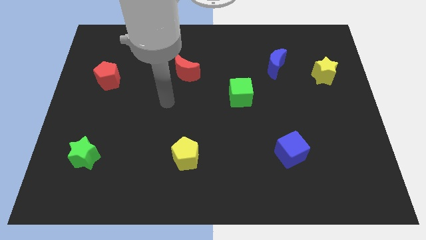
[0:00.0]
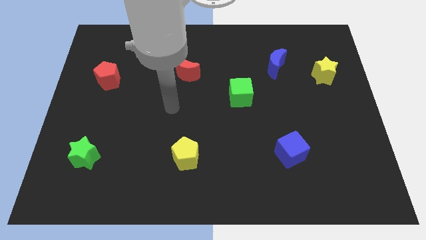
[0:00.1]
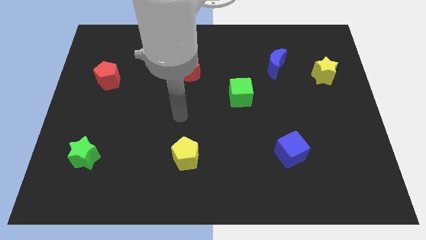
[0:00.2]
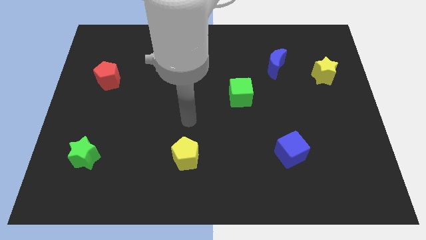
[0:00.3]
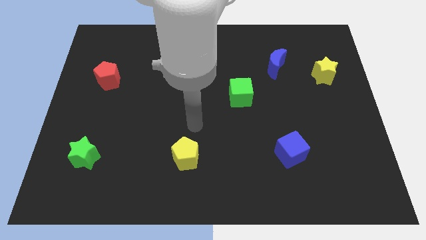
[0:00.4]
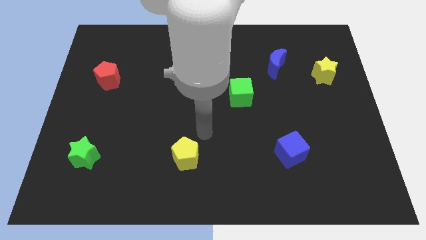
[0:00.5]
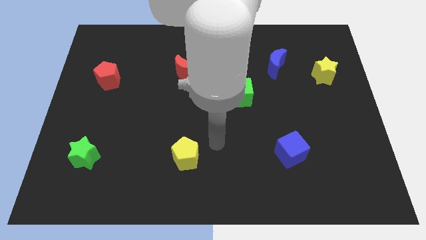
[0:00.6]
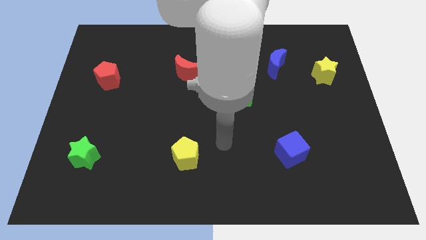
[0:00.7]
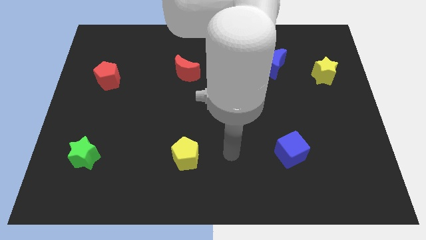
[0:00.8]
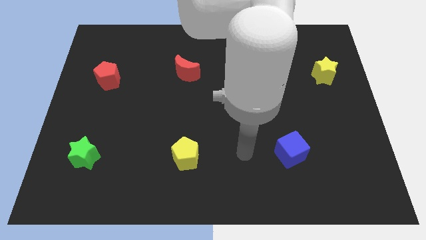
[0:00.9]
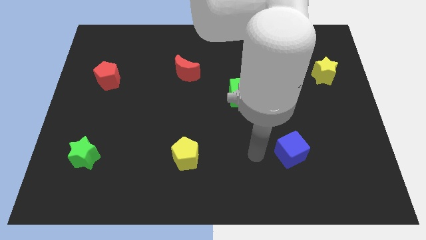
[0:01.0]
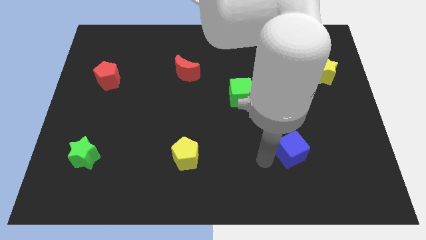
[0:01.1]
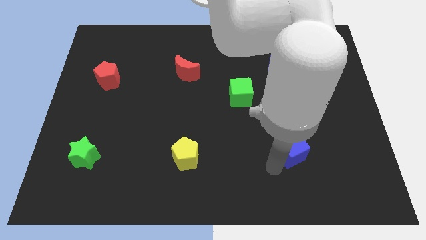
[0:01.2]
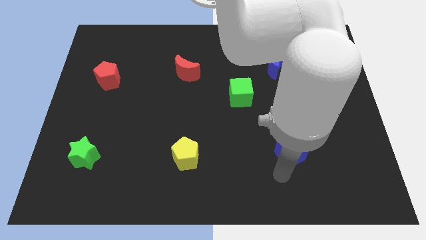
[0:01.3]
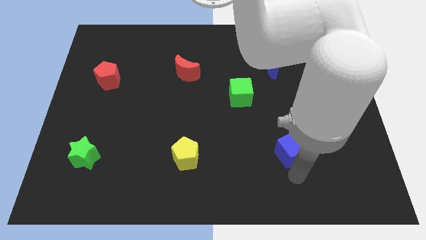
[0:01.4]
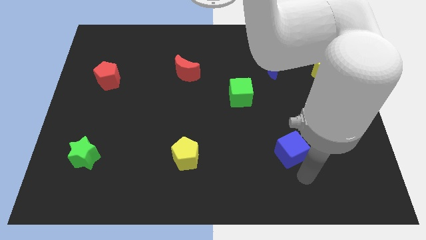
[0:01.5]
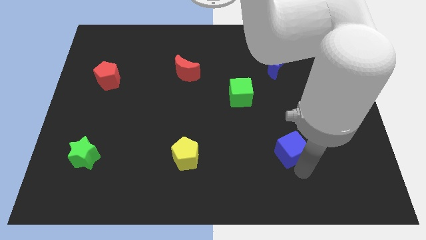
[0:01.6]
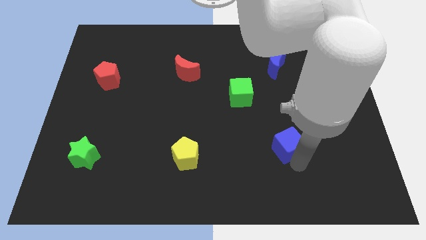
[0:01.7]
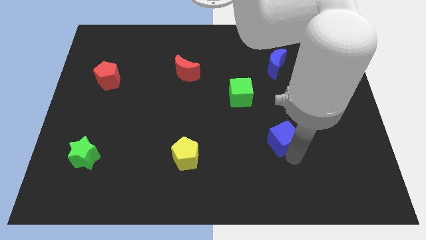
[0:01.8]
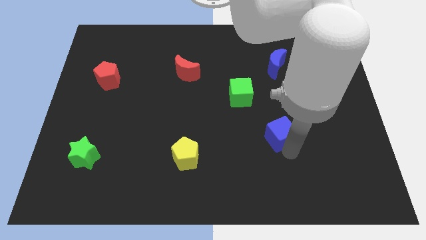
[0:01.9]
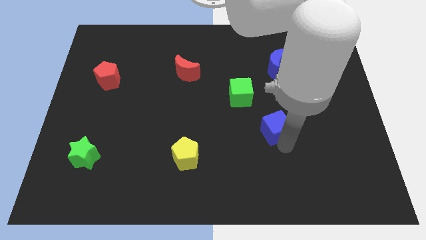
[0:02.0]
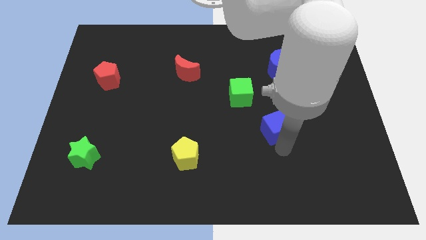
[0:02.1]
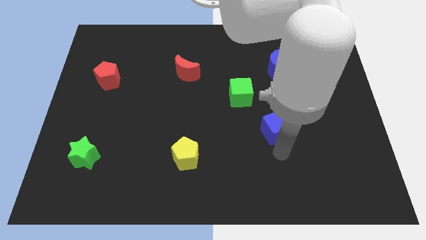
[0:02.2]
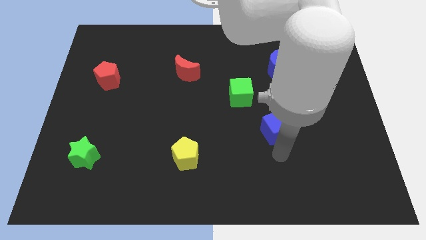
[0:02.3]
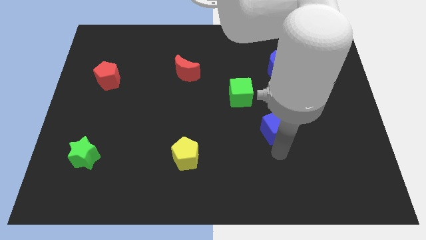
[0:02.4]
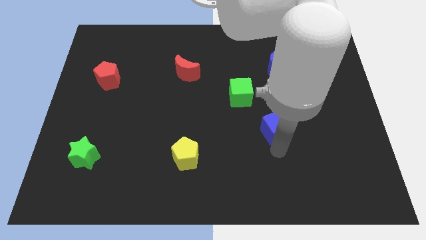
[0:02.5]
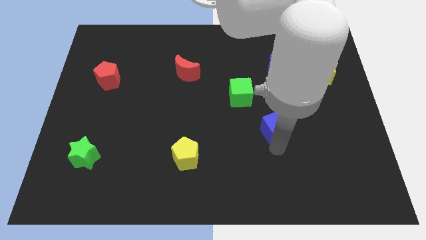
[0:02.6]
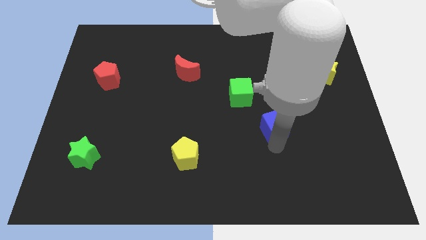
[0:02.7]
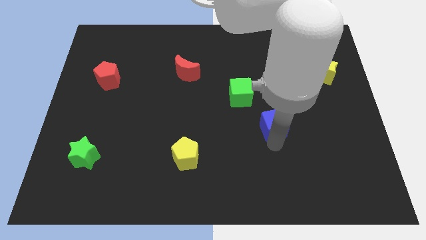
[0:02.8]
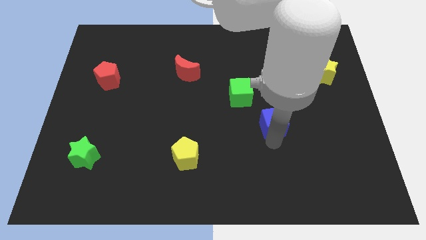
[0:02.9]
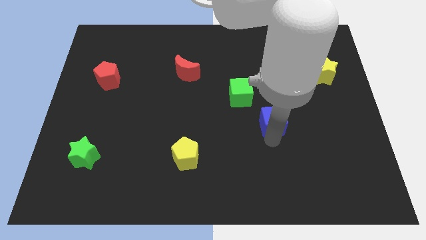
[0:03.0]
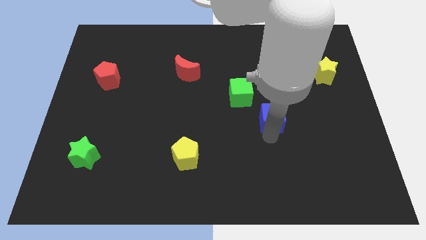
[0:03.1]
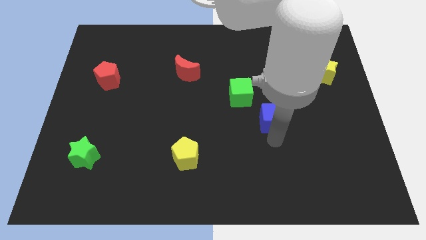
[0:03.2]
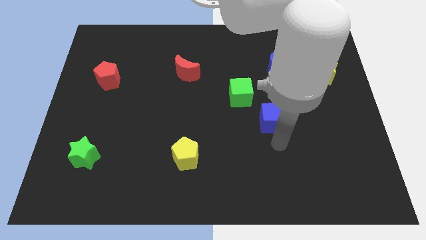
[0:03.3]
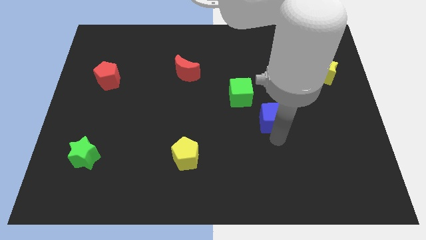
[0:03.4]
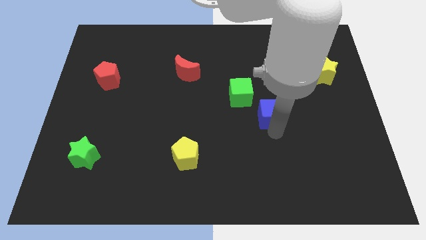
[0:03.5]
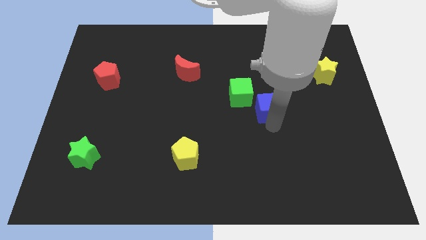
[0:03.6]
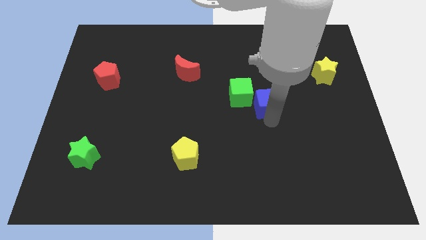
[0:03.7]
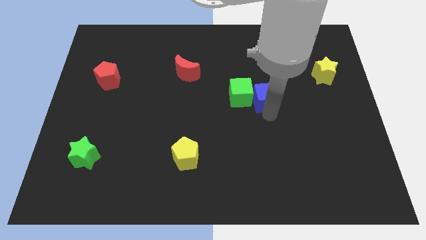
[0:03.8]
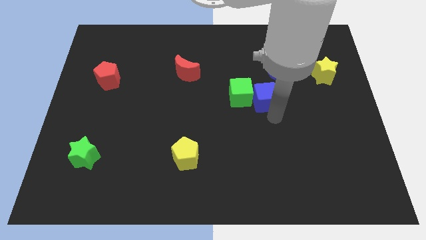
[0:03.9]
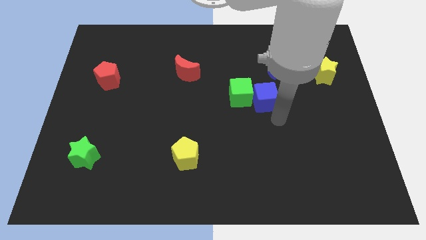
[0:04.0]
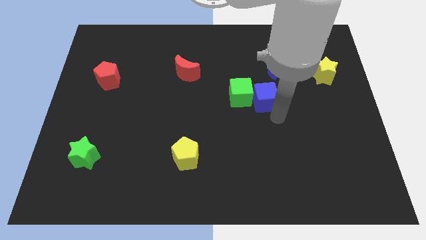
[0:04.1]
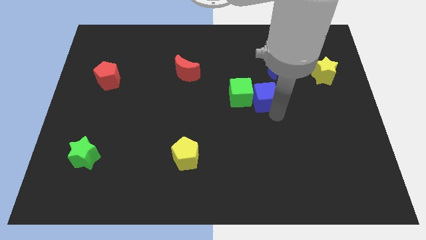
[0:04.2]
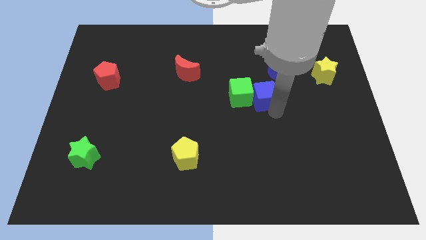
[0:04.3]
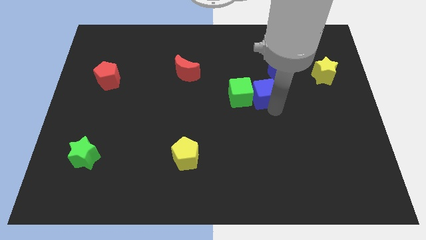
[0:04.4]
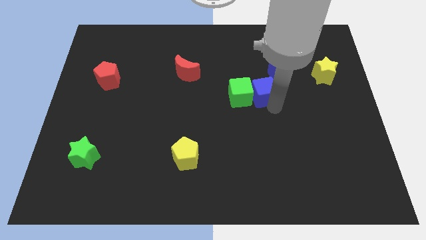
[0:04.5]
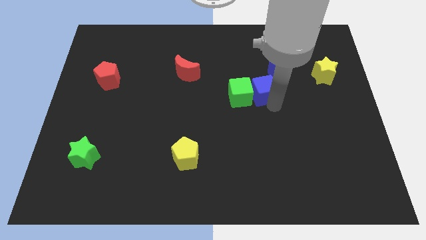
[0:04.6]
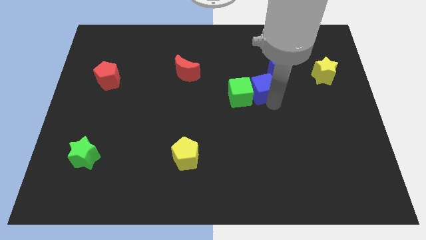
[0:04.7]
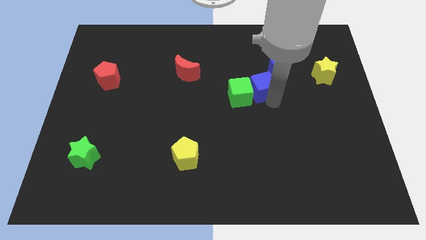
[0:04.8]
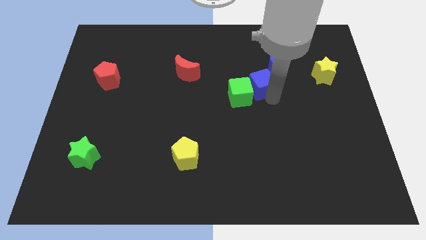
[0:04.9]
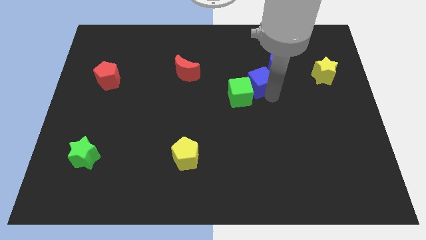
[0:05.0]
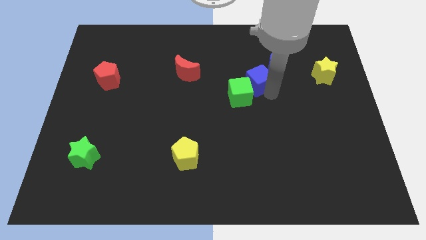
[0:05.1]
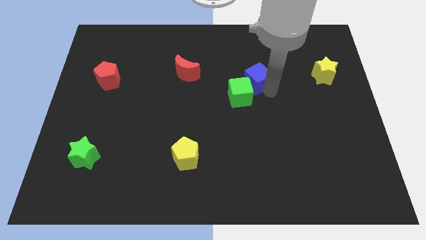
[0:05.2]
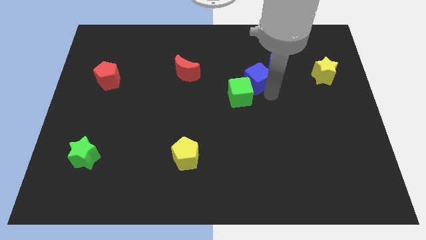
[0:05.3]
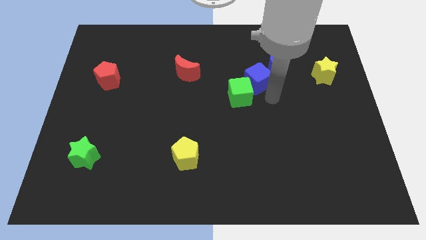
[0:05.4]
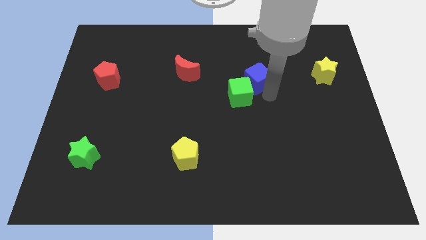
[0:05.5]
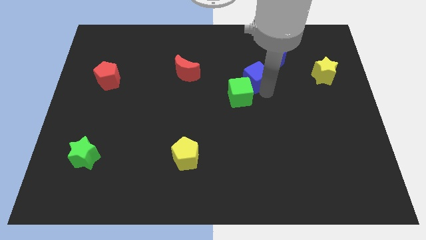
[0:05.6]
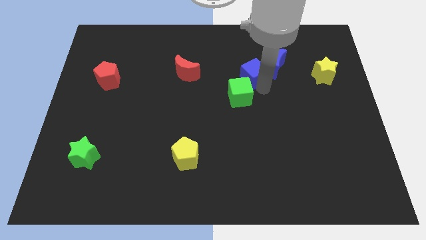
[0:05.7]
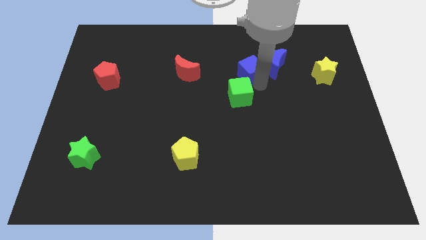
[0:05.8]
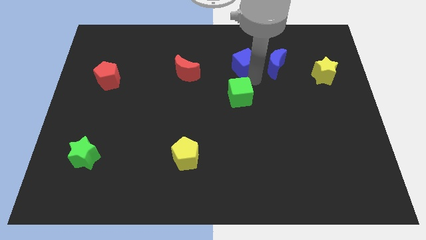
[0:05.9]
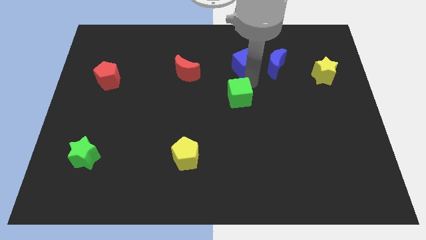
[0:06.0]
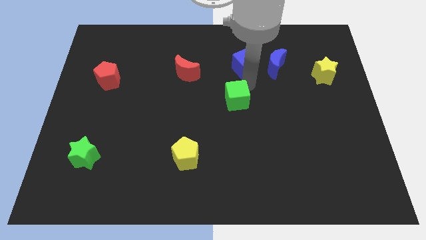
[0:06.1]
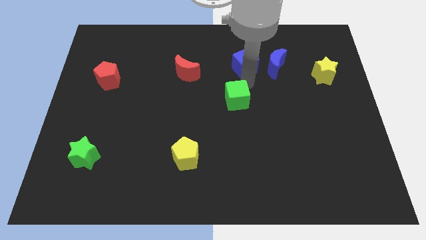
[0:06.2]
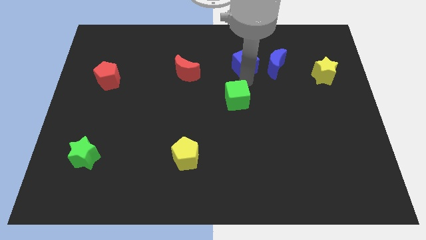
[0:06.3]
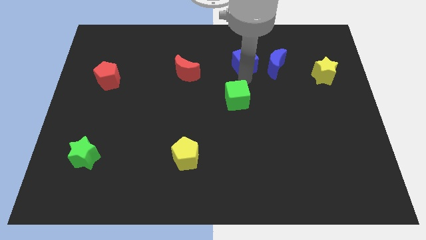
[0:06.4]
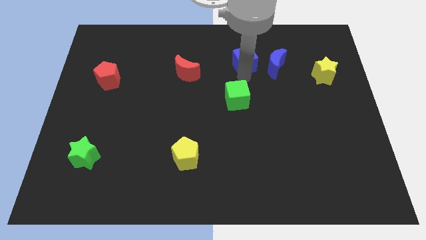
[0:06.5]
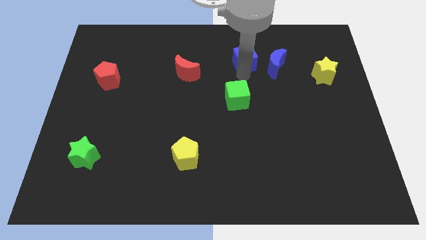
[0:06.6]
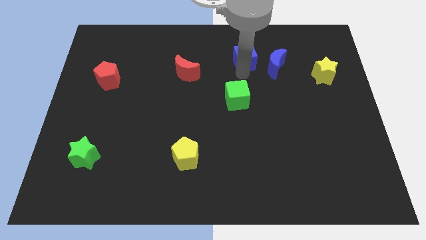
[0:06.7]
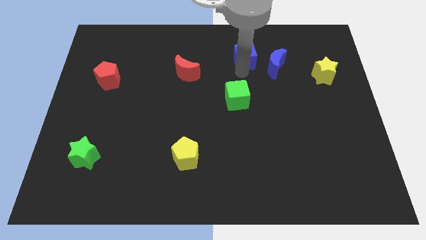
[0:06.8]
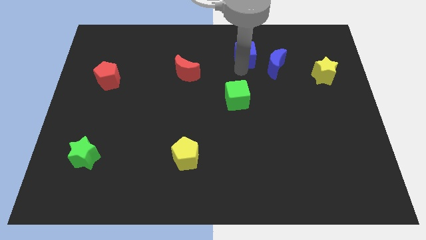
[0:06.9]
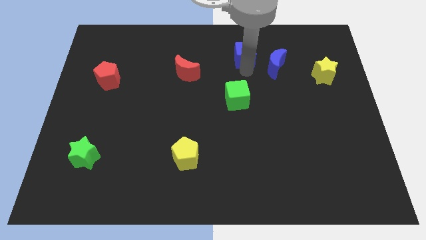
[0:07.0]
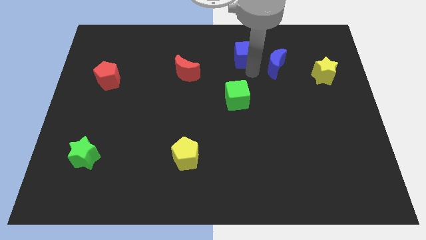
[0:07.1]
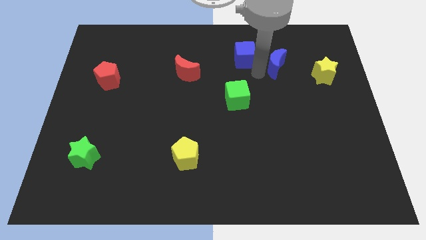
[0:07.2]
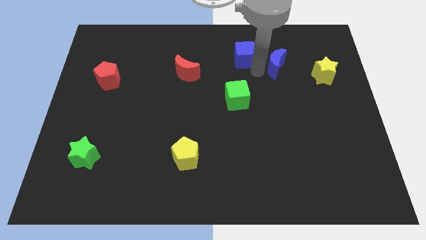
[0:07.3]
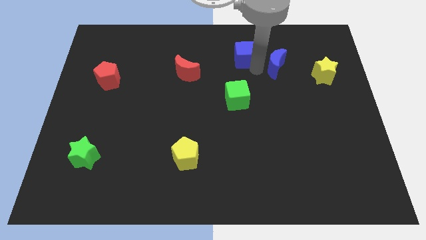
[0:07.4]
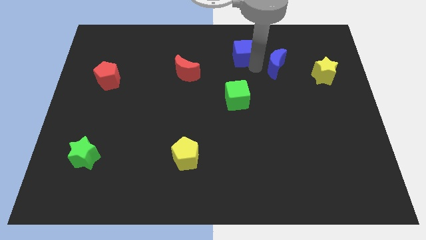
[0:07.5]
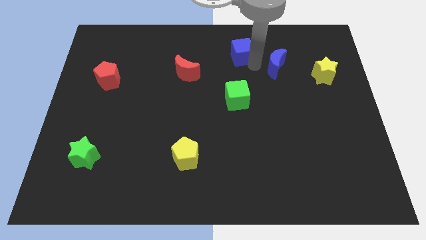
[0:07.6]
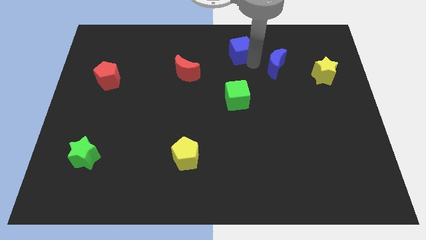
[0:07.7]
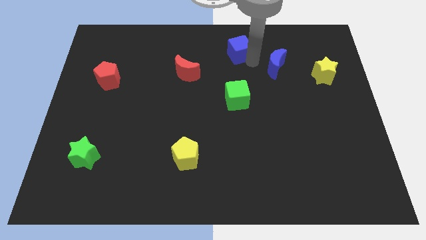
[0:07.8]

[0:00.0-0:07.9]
push the blue cube to the top
